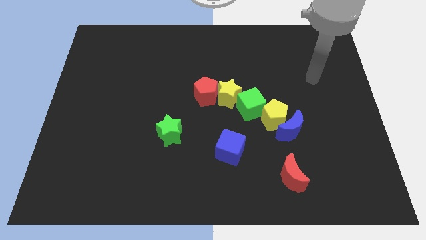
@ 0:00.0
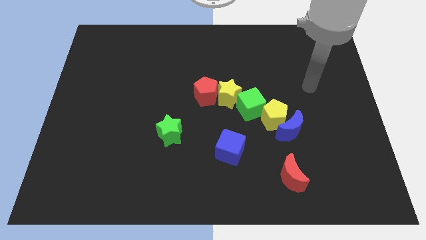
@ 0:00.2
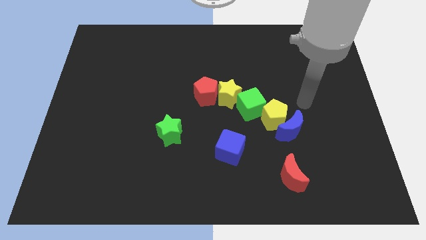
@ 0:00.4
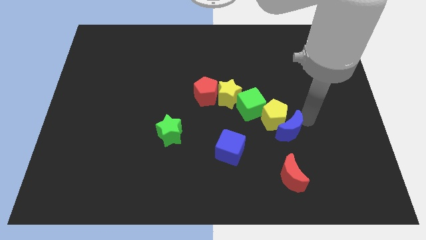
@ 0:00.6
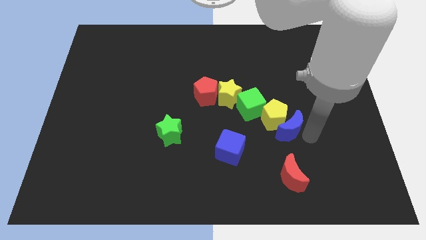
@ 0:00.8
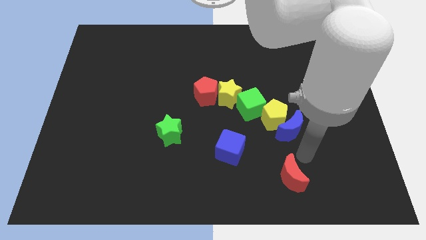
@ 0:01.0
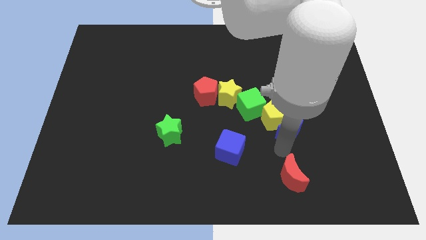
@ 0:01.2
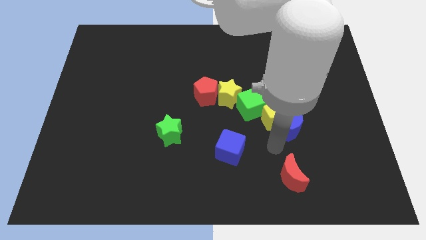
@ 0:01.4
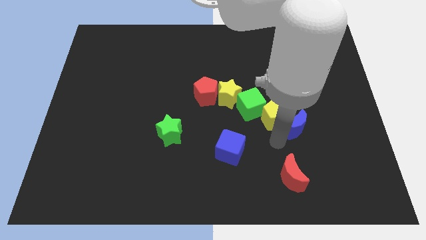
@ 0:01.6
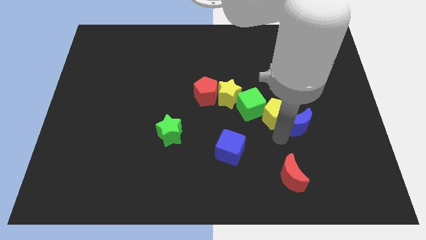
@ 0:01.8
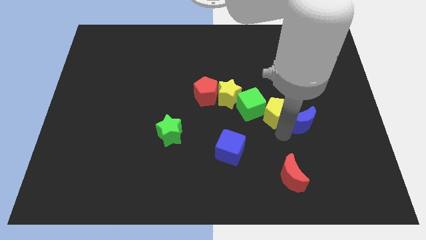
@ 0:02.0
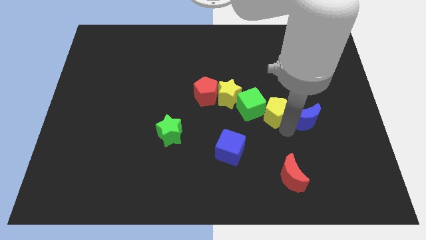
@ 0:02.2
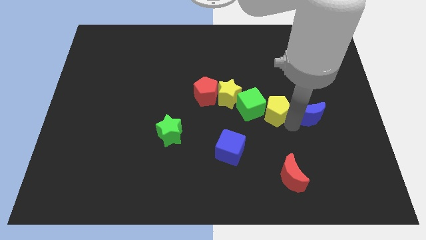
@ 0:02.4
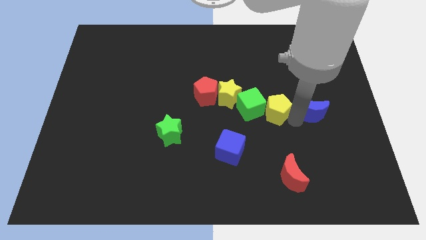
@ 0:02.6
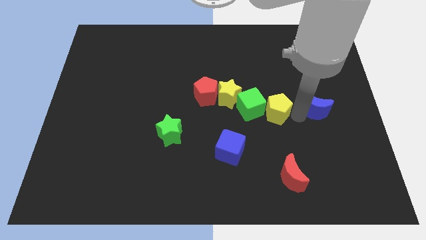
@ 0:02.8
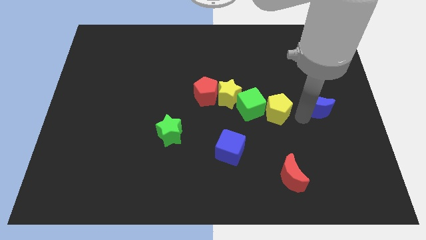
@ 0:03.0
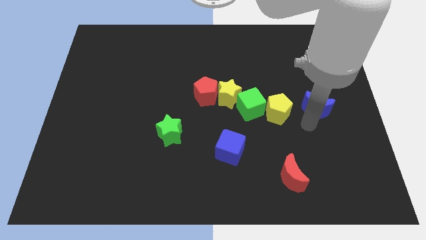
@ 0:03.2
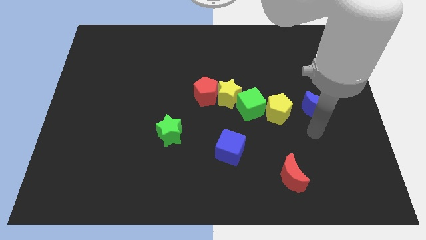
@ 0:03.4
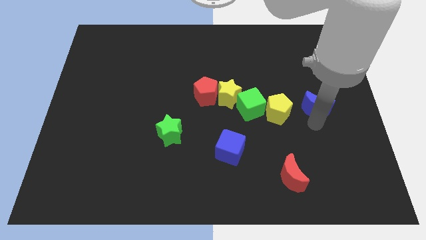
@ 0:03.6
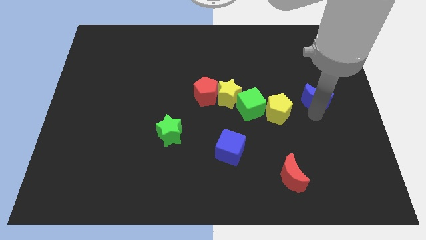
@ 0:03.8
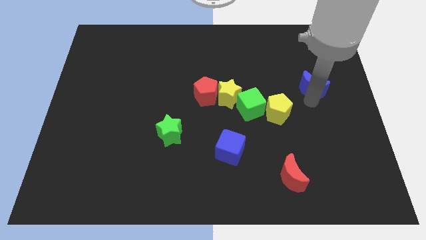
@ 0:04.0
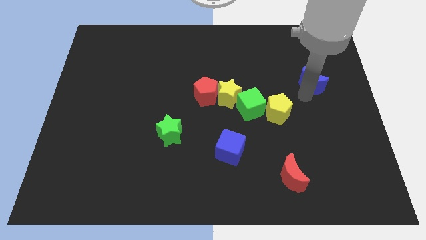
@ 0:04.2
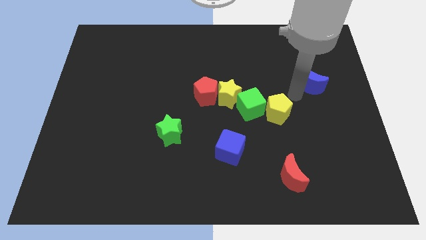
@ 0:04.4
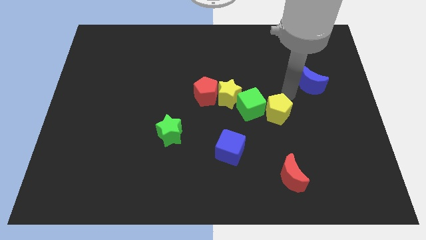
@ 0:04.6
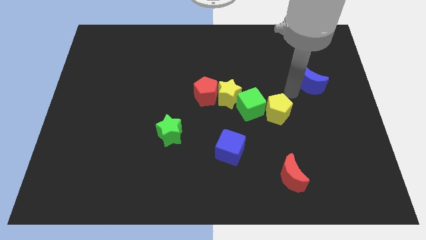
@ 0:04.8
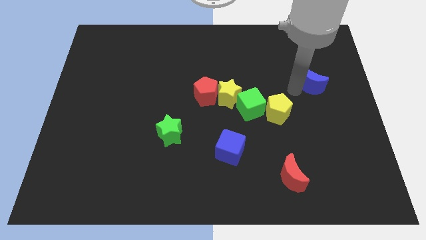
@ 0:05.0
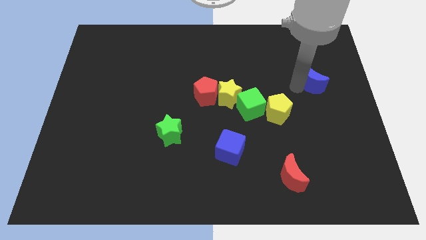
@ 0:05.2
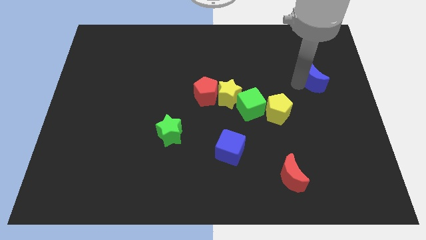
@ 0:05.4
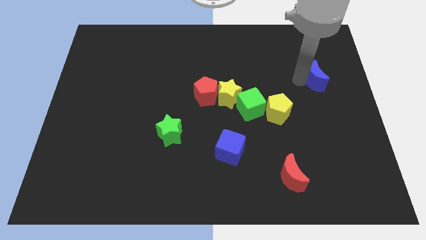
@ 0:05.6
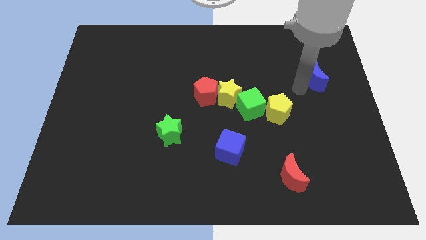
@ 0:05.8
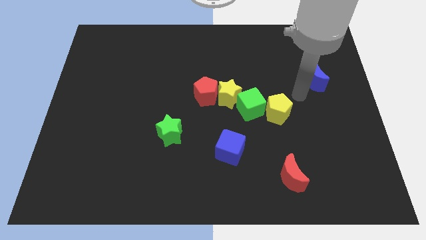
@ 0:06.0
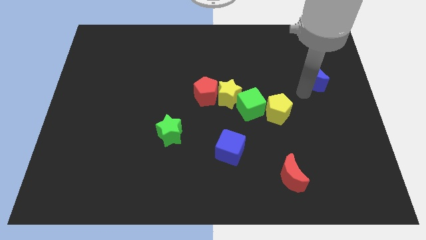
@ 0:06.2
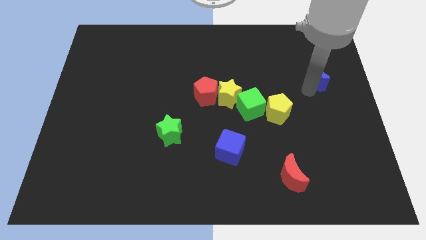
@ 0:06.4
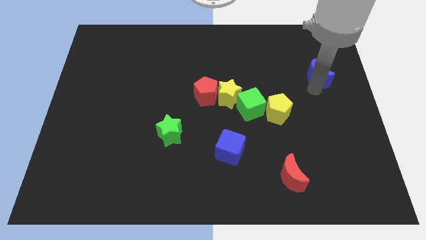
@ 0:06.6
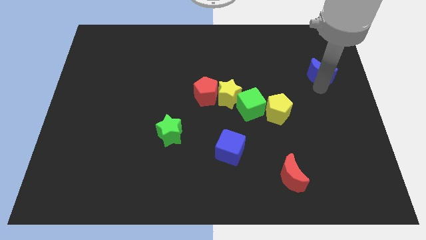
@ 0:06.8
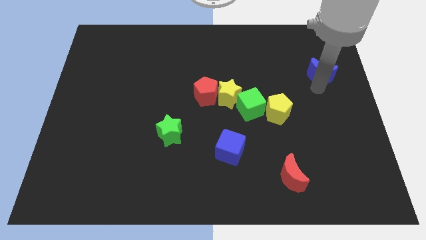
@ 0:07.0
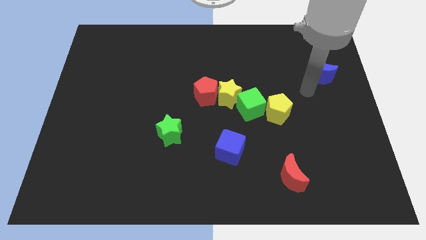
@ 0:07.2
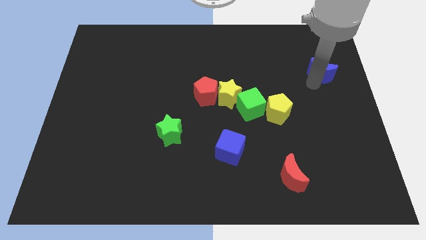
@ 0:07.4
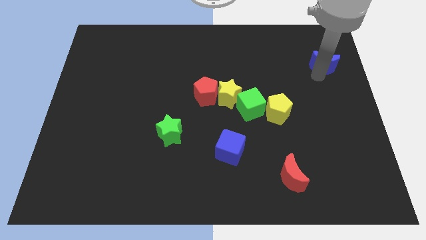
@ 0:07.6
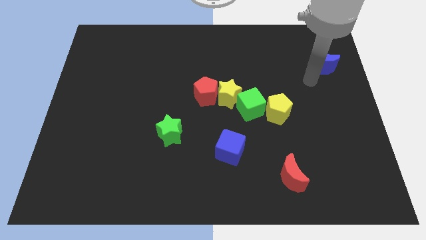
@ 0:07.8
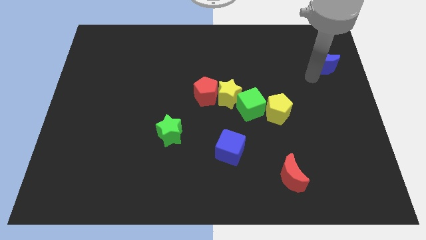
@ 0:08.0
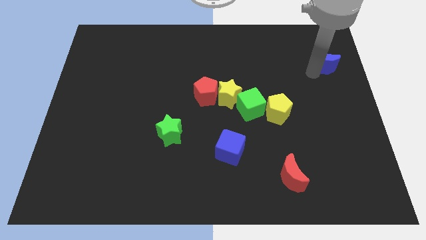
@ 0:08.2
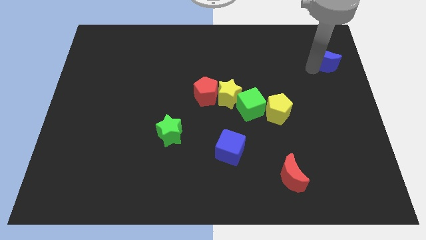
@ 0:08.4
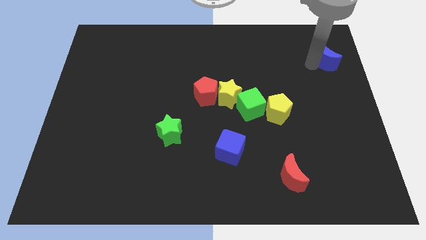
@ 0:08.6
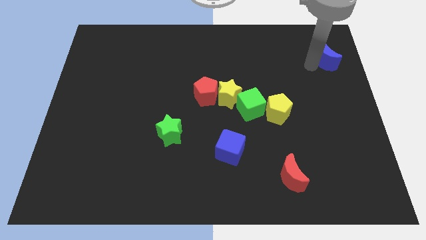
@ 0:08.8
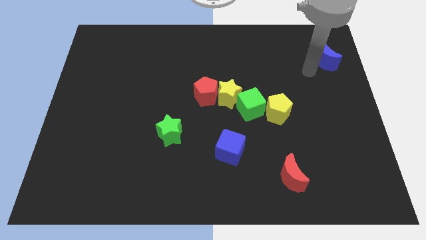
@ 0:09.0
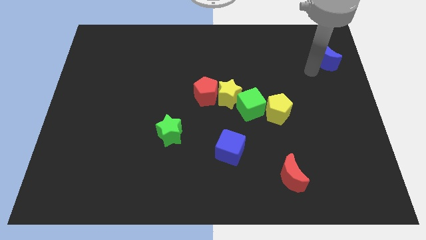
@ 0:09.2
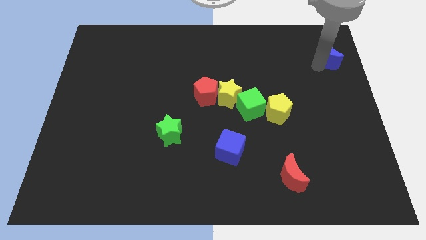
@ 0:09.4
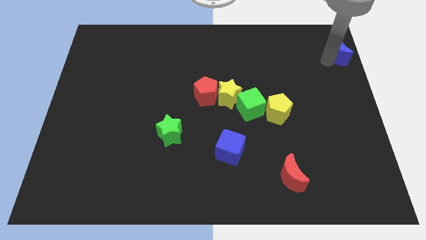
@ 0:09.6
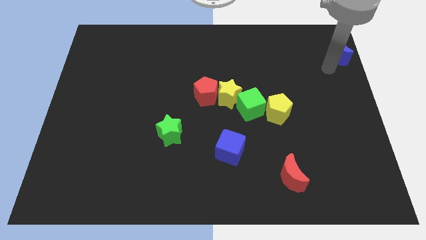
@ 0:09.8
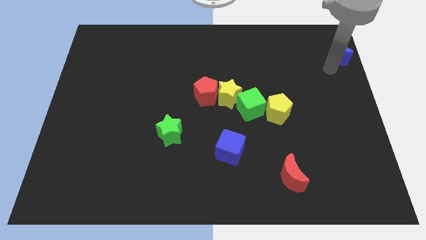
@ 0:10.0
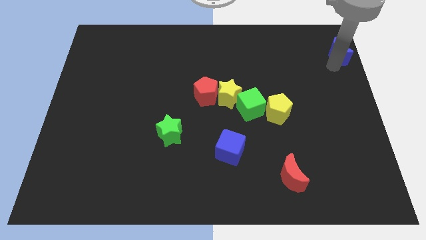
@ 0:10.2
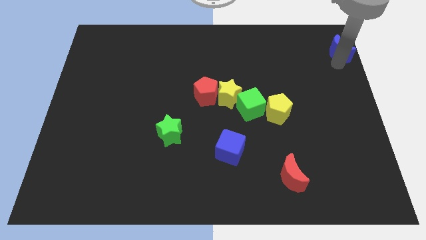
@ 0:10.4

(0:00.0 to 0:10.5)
move the blue moon to the top right

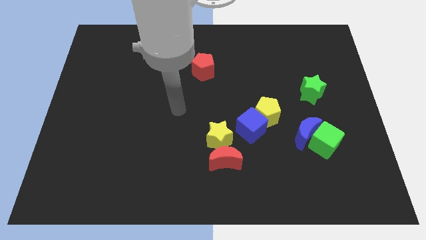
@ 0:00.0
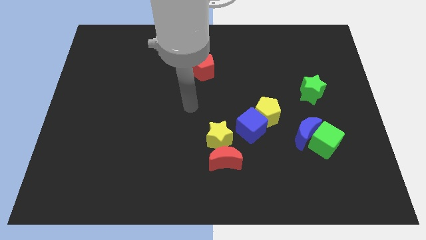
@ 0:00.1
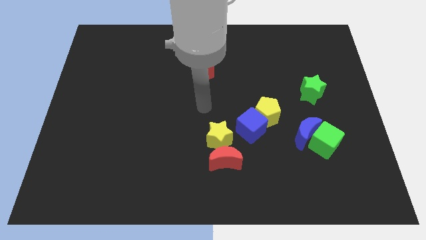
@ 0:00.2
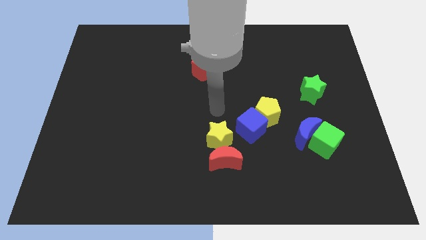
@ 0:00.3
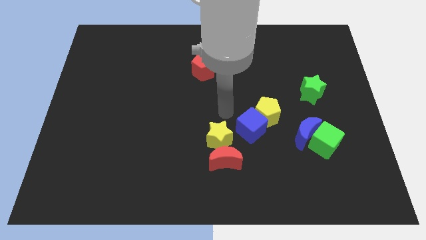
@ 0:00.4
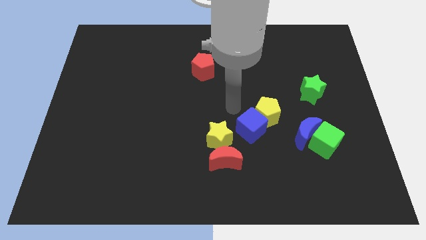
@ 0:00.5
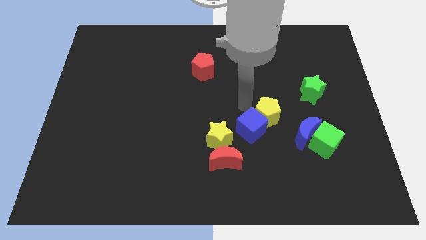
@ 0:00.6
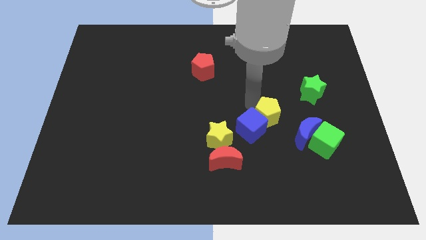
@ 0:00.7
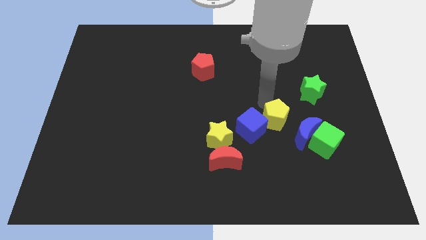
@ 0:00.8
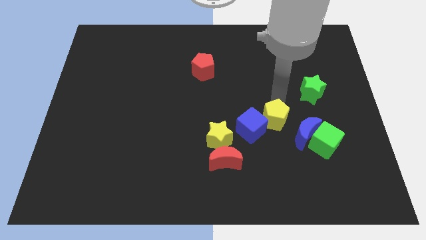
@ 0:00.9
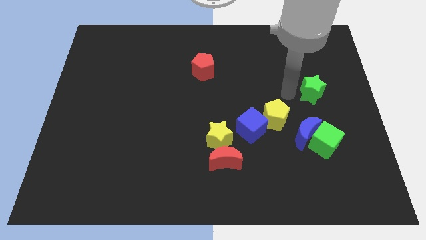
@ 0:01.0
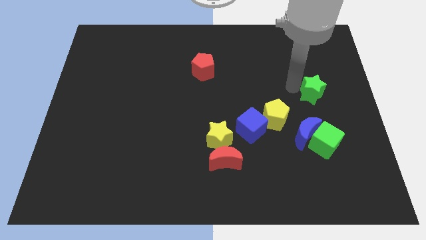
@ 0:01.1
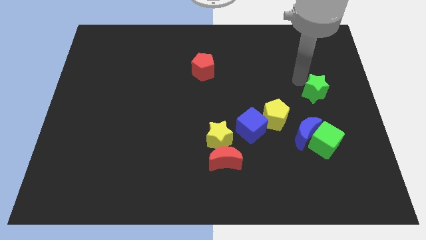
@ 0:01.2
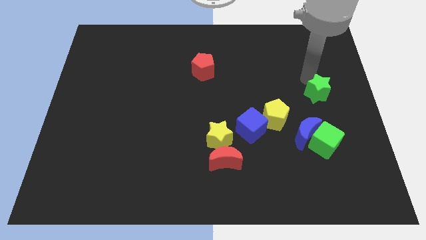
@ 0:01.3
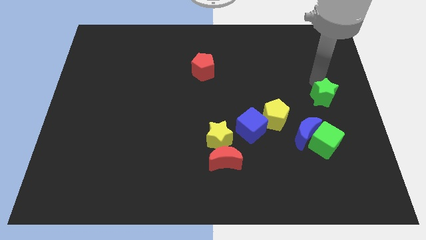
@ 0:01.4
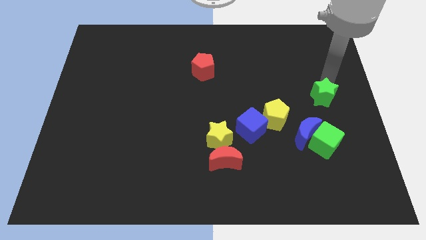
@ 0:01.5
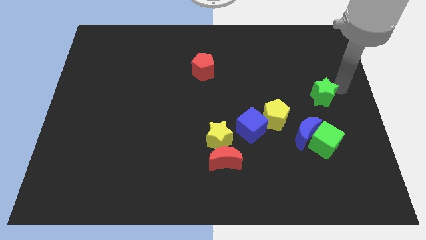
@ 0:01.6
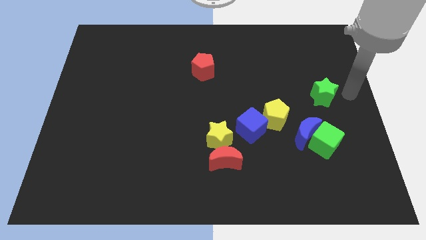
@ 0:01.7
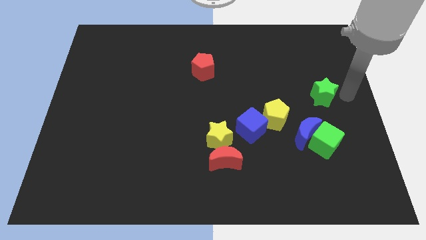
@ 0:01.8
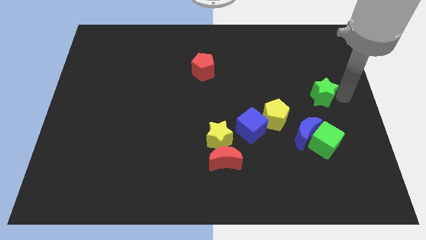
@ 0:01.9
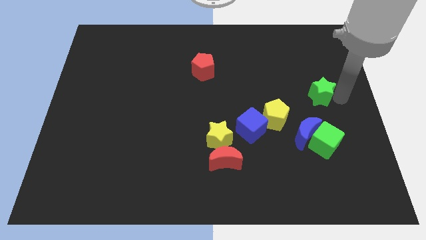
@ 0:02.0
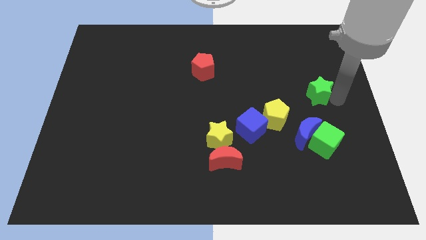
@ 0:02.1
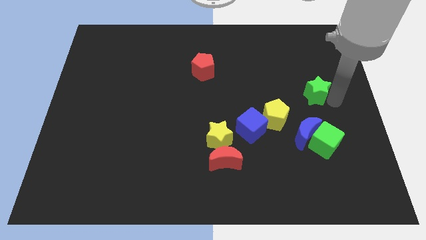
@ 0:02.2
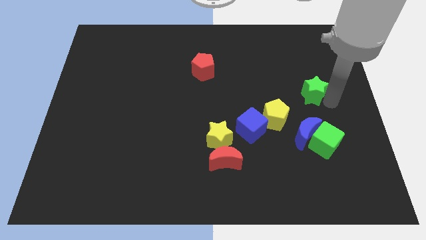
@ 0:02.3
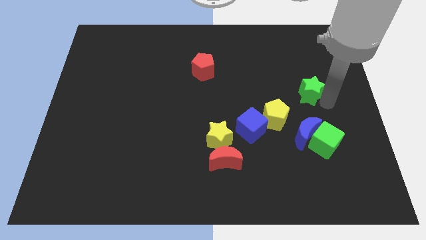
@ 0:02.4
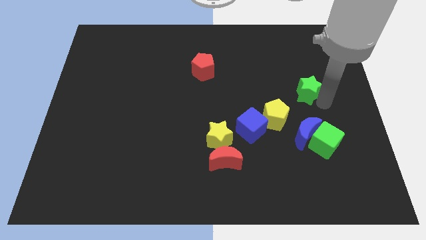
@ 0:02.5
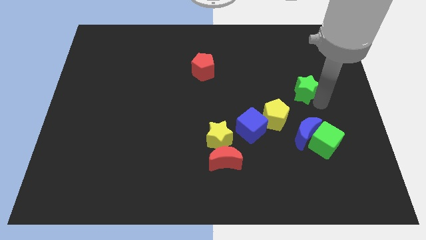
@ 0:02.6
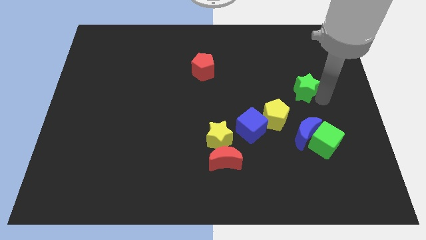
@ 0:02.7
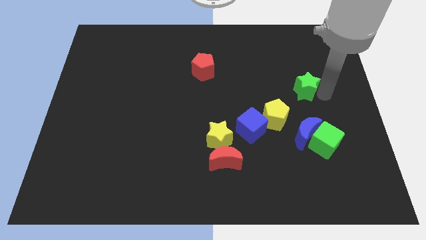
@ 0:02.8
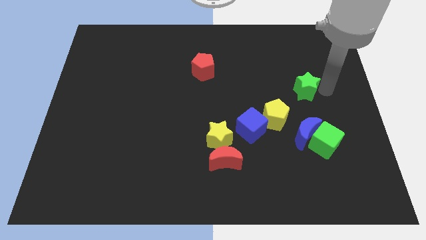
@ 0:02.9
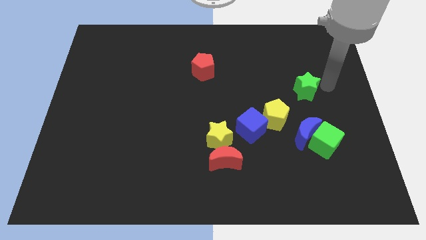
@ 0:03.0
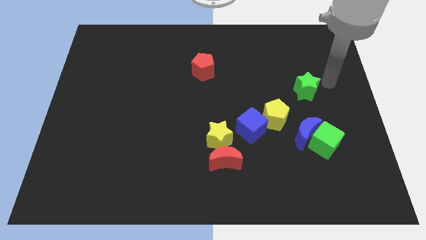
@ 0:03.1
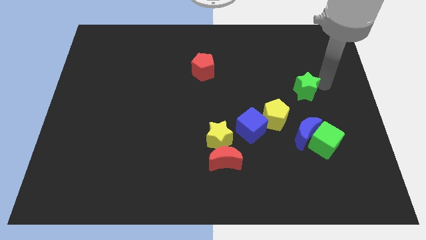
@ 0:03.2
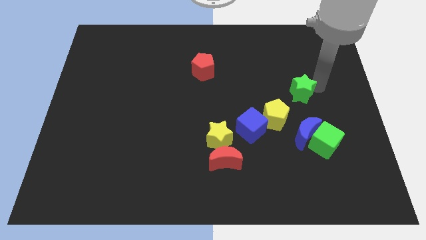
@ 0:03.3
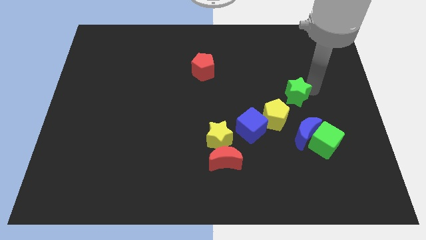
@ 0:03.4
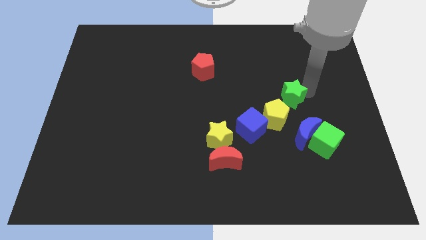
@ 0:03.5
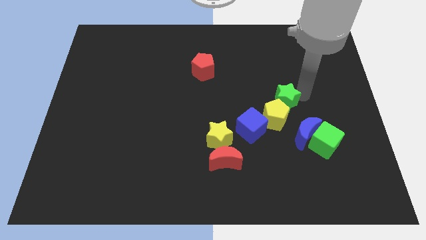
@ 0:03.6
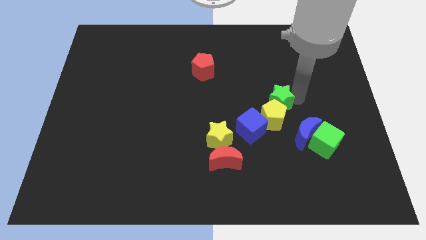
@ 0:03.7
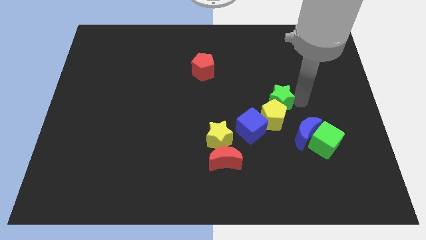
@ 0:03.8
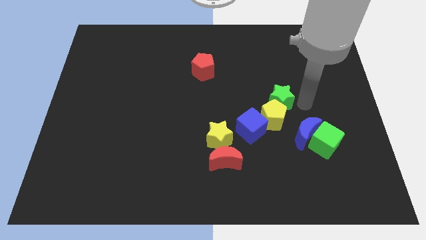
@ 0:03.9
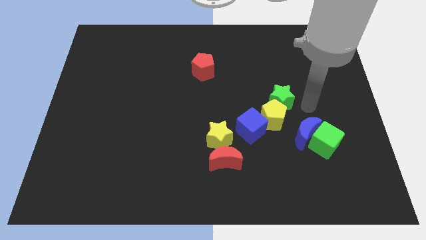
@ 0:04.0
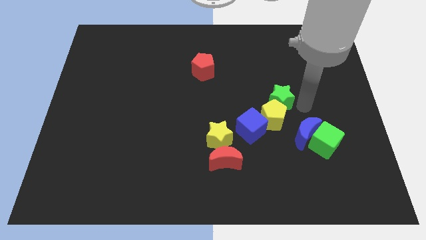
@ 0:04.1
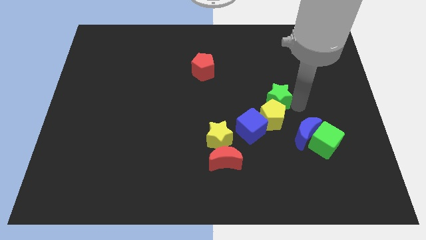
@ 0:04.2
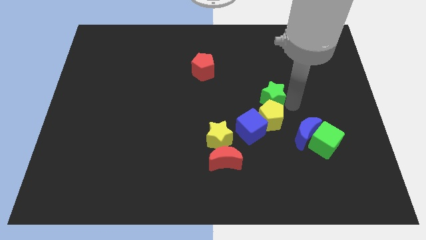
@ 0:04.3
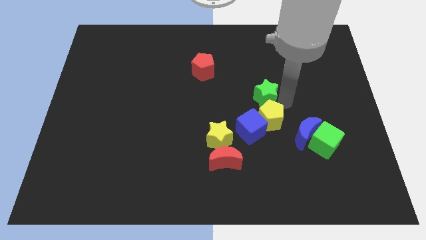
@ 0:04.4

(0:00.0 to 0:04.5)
put the green star to the middle of the board
